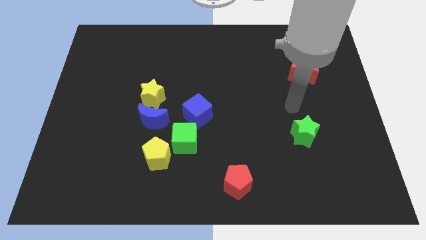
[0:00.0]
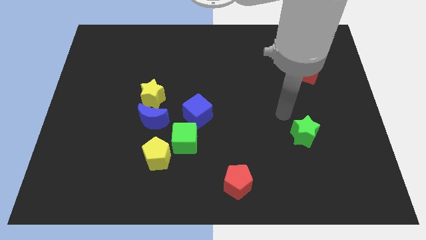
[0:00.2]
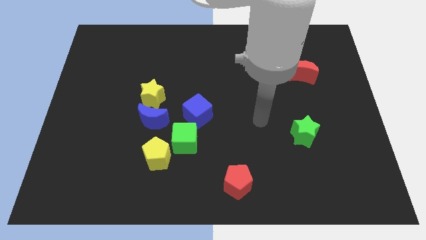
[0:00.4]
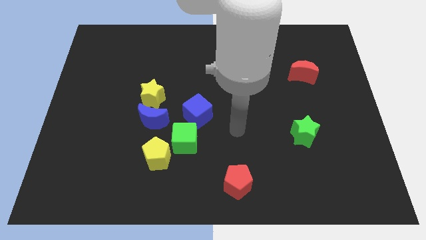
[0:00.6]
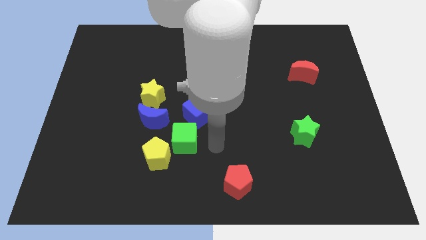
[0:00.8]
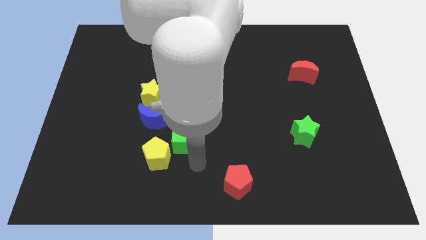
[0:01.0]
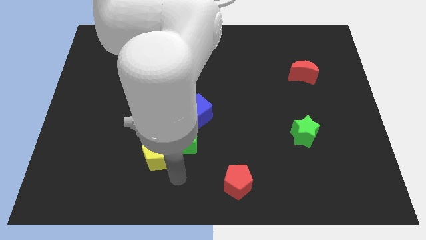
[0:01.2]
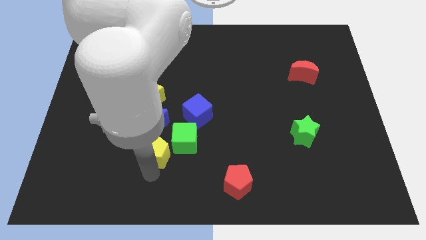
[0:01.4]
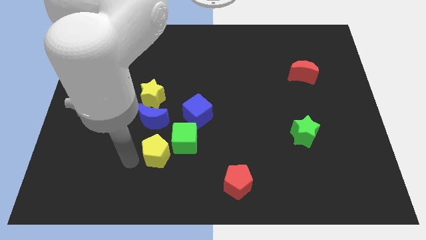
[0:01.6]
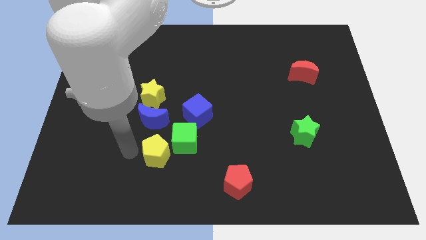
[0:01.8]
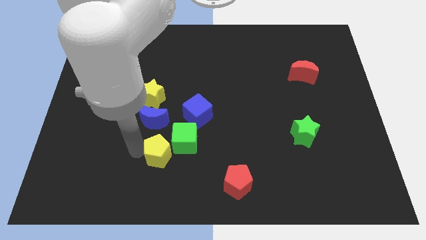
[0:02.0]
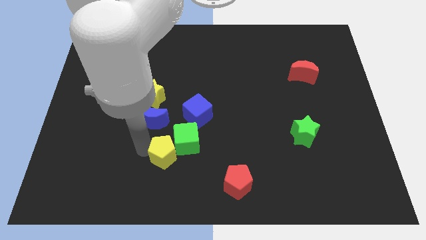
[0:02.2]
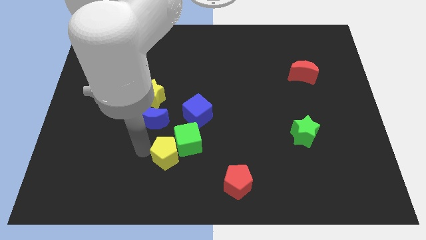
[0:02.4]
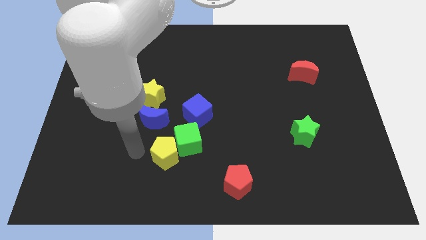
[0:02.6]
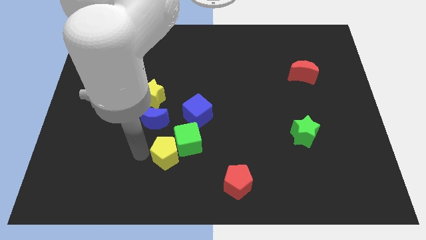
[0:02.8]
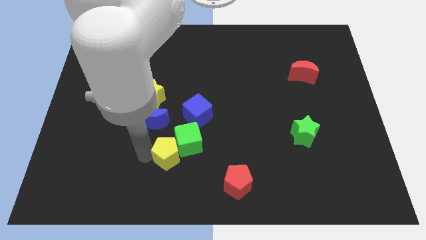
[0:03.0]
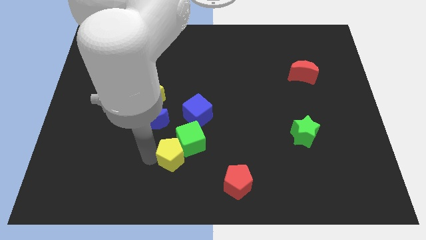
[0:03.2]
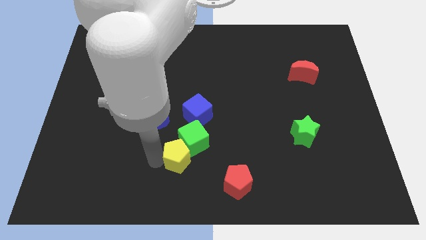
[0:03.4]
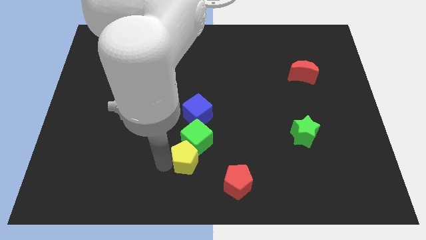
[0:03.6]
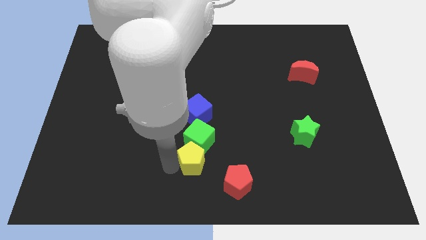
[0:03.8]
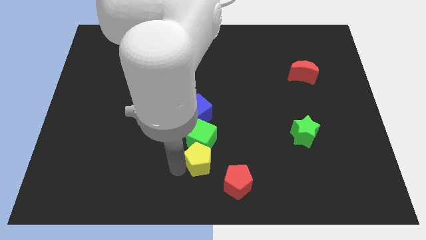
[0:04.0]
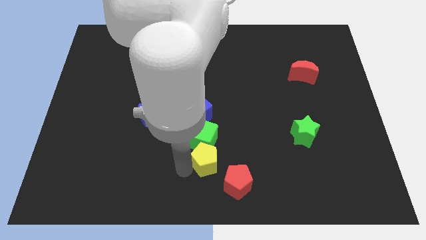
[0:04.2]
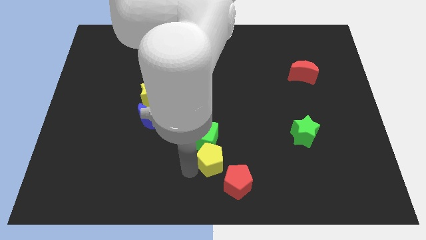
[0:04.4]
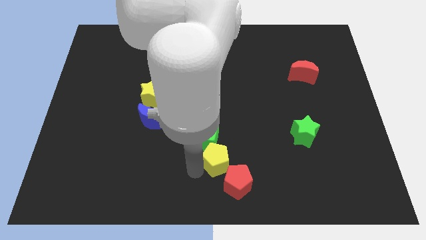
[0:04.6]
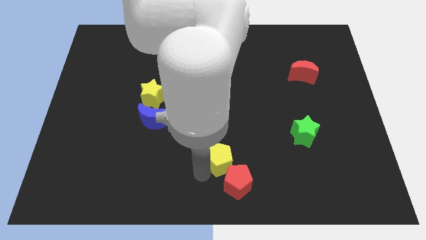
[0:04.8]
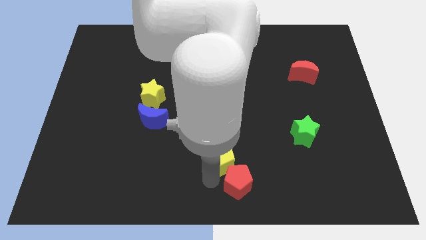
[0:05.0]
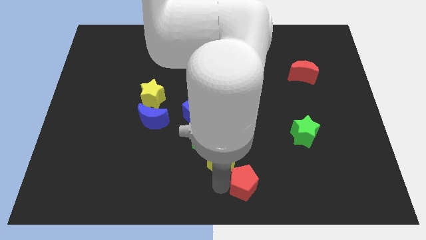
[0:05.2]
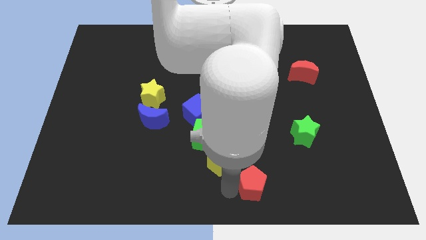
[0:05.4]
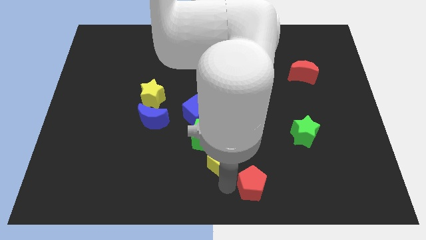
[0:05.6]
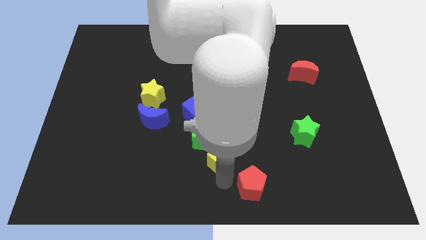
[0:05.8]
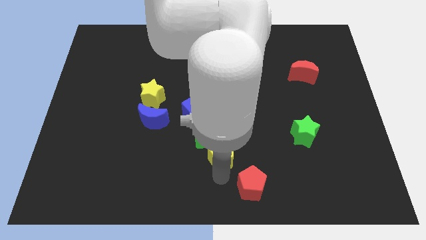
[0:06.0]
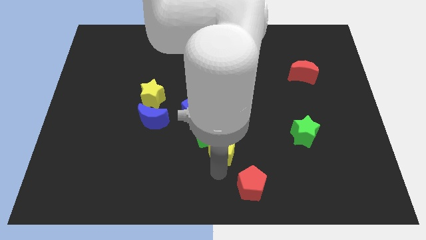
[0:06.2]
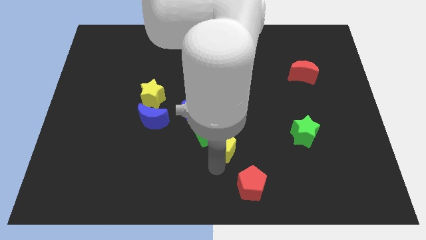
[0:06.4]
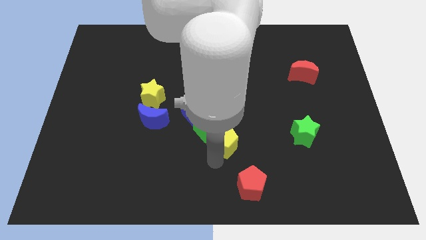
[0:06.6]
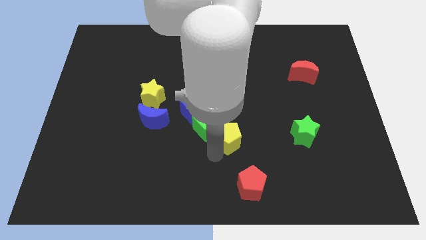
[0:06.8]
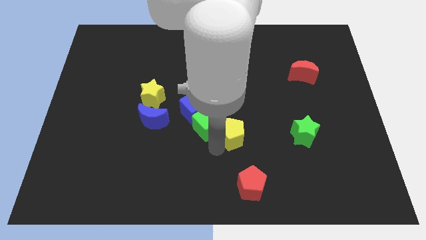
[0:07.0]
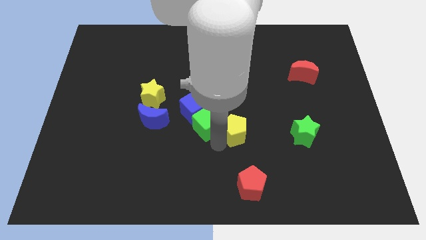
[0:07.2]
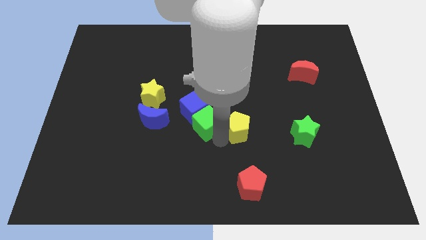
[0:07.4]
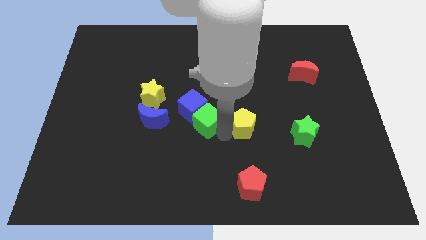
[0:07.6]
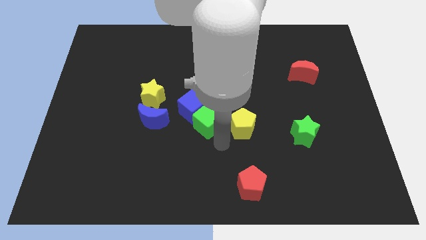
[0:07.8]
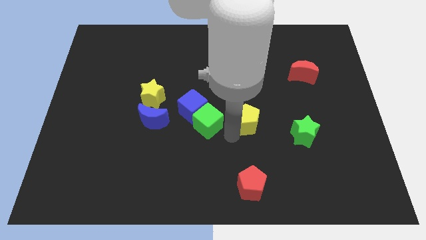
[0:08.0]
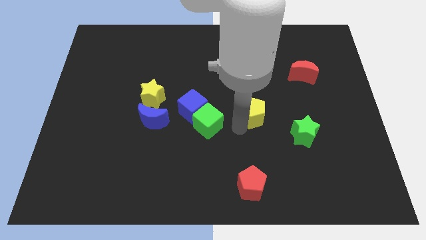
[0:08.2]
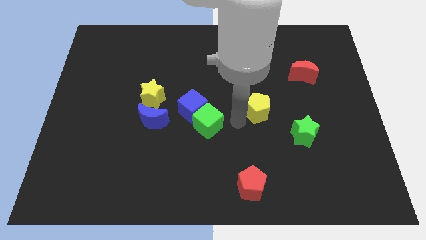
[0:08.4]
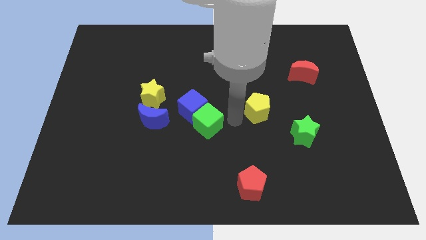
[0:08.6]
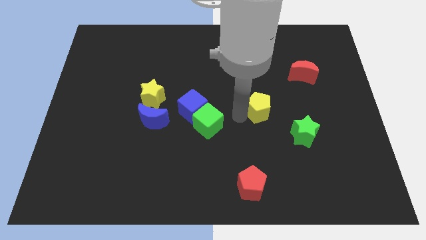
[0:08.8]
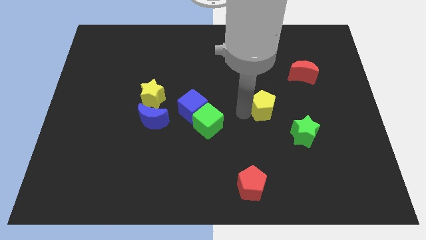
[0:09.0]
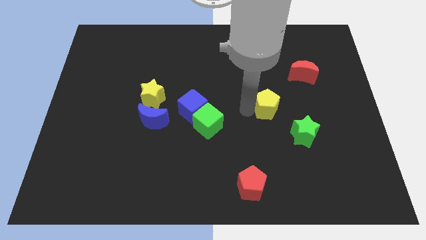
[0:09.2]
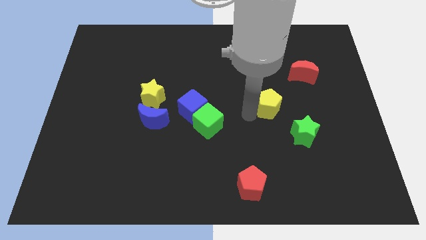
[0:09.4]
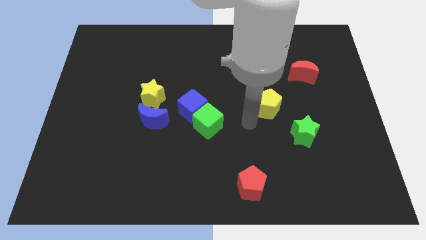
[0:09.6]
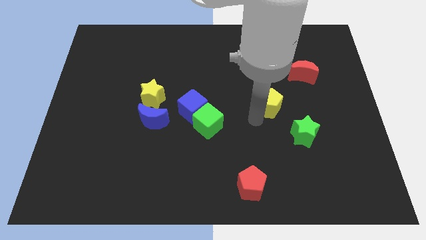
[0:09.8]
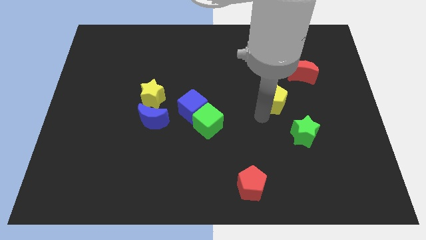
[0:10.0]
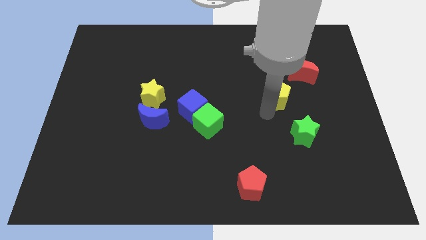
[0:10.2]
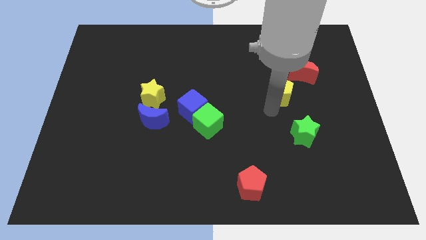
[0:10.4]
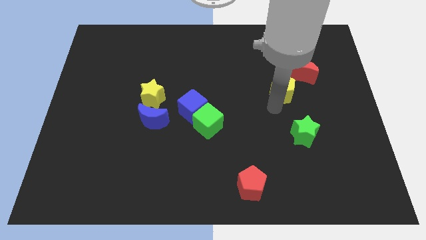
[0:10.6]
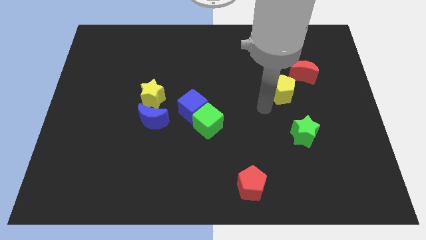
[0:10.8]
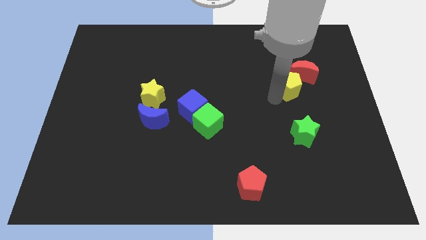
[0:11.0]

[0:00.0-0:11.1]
put the yellow pentagon towards the red moon
